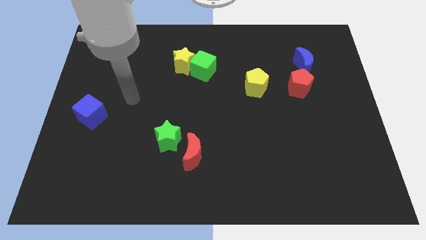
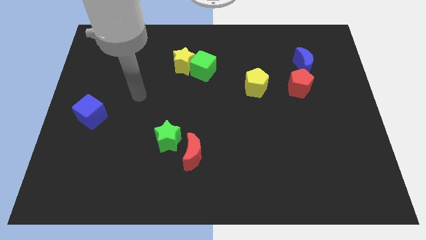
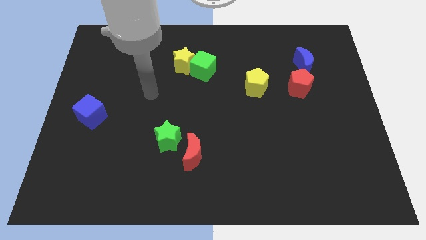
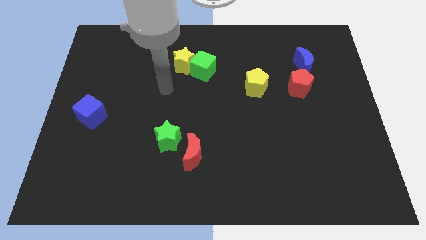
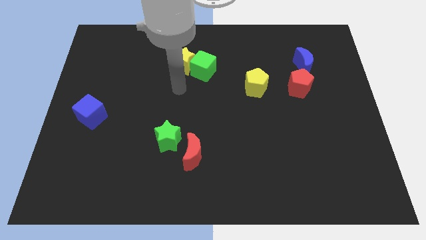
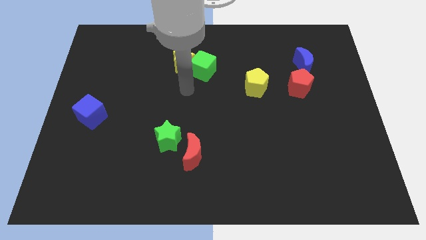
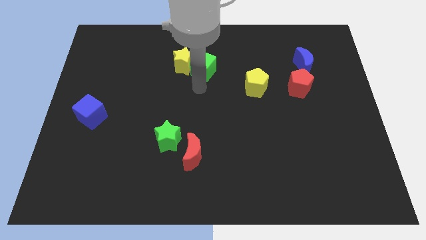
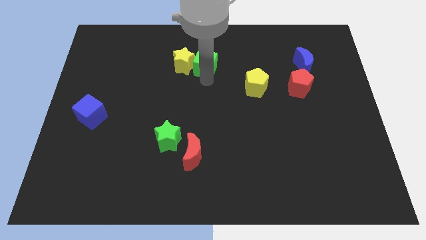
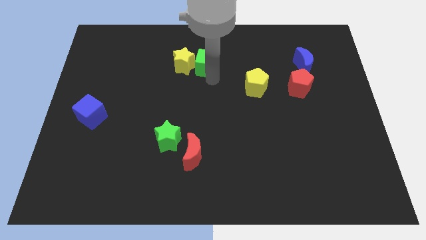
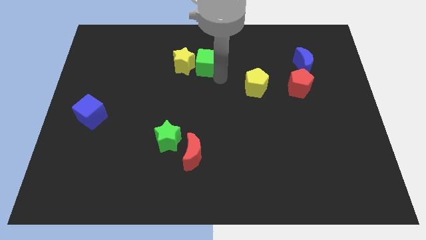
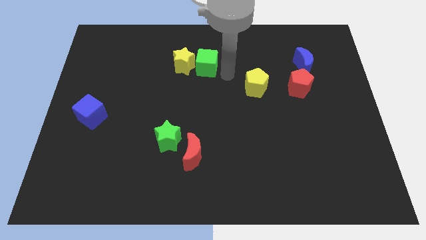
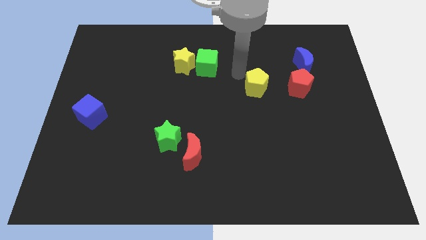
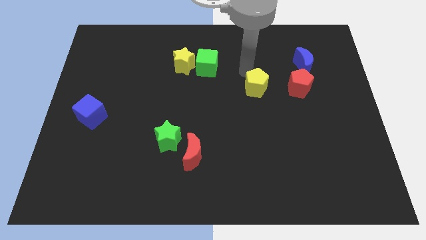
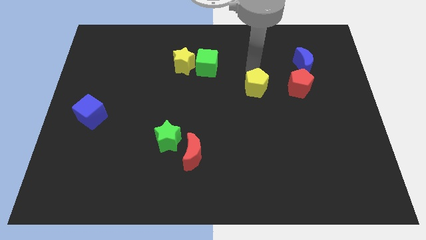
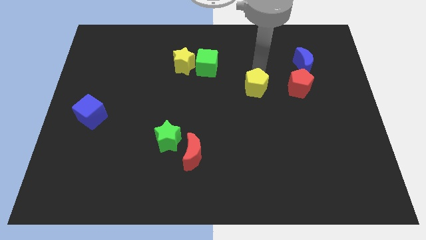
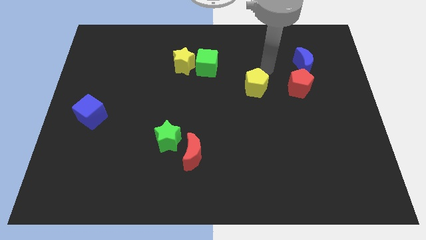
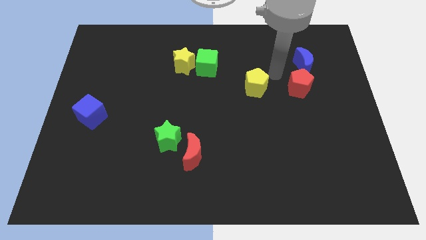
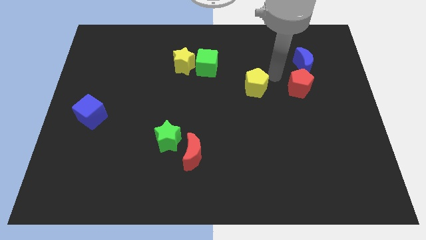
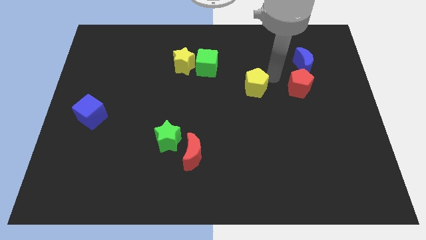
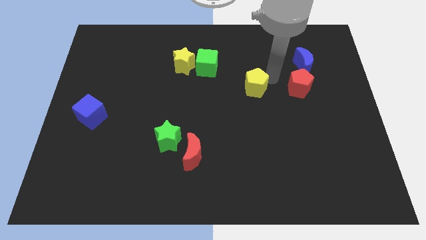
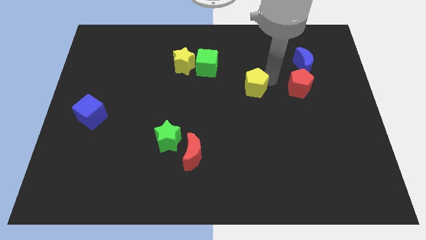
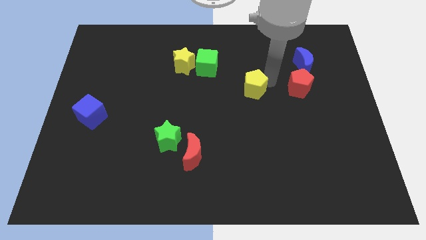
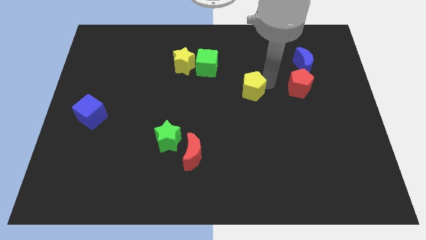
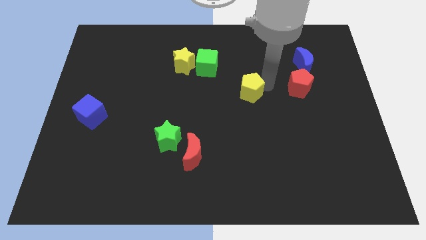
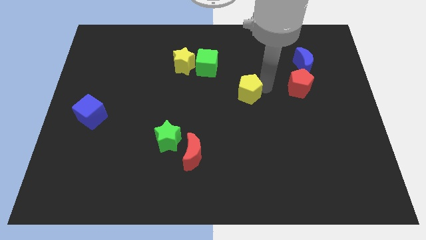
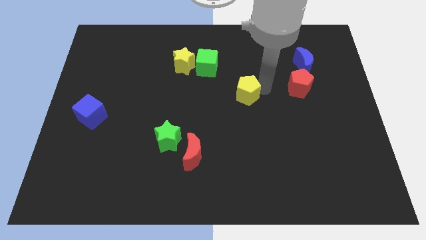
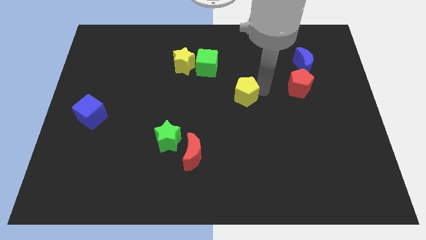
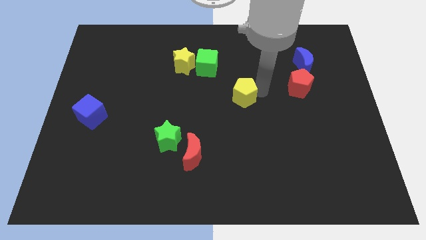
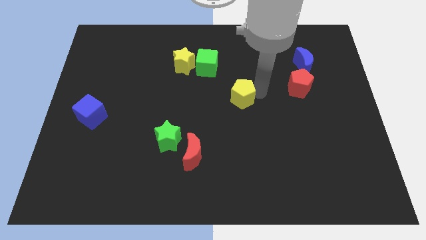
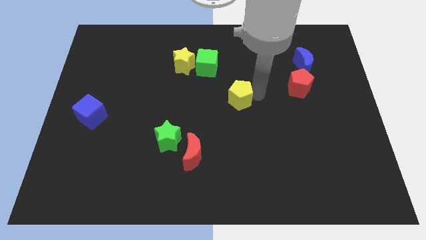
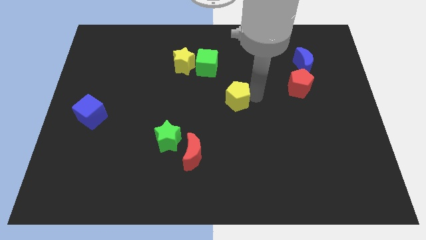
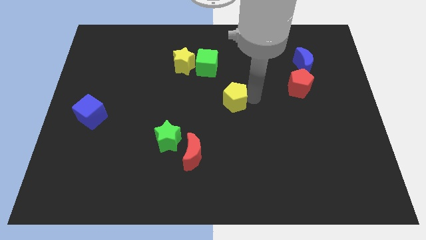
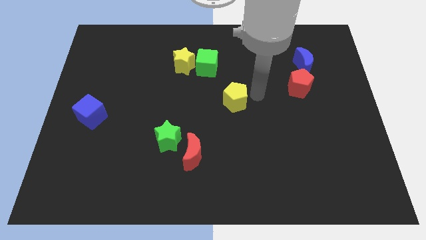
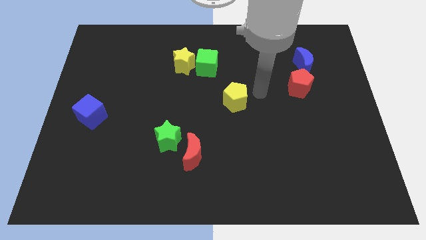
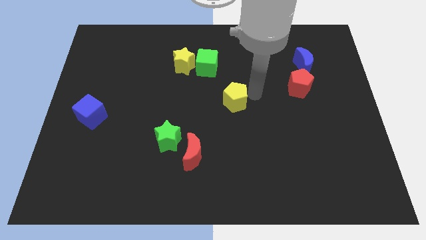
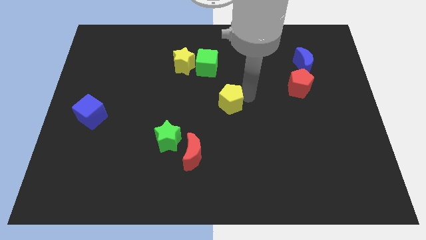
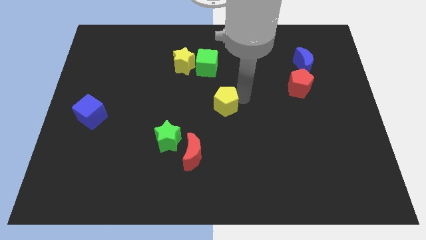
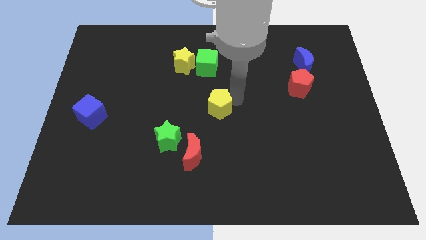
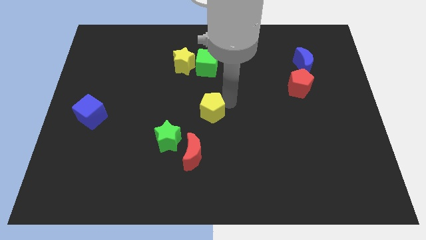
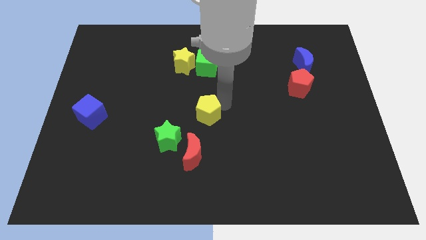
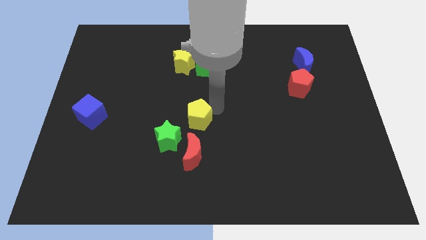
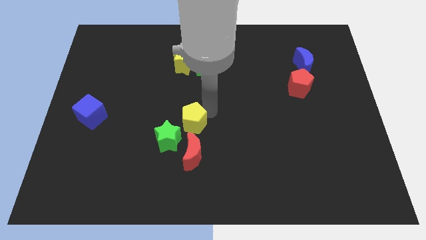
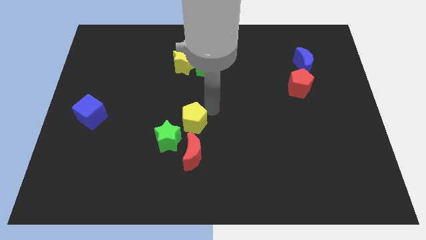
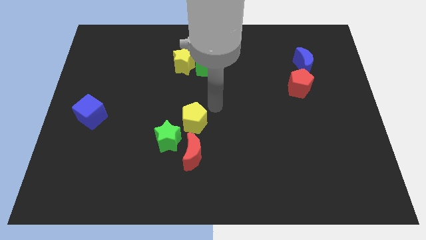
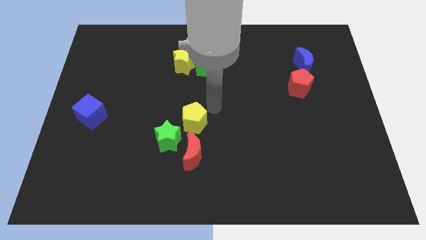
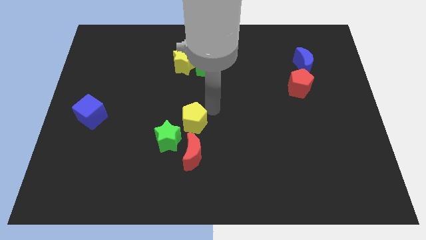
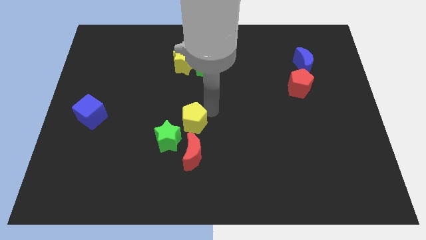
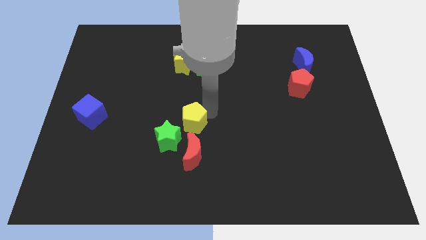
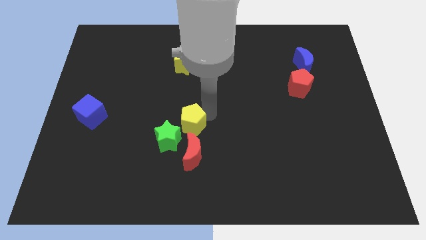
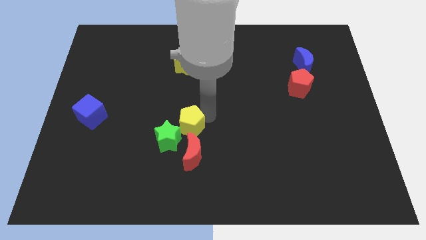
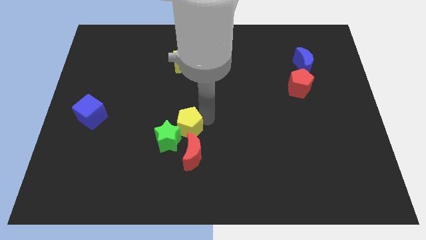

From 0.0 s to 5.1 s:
slide the yellow pentagon to the green star

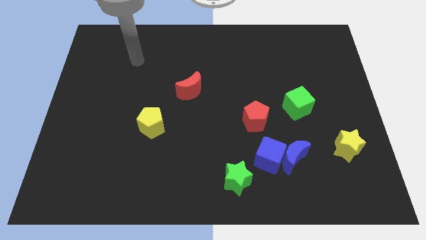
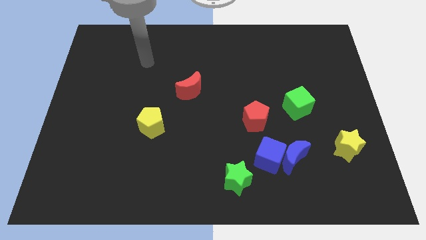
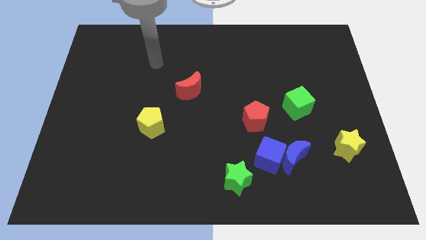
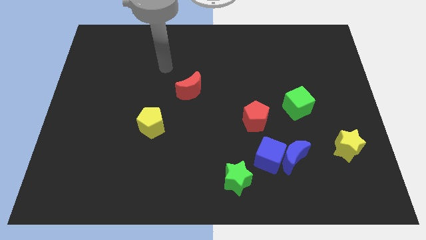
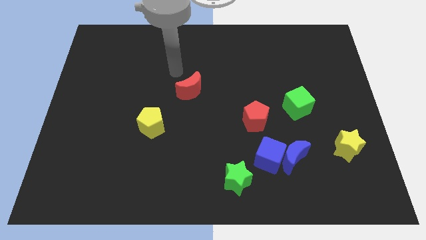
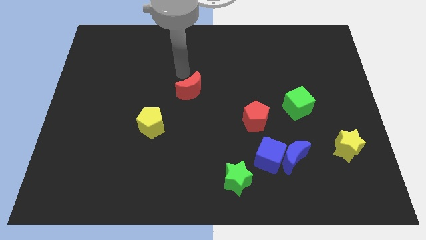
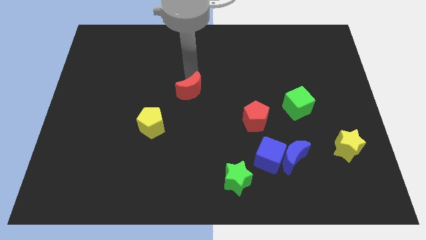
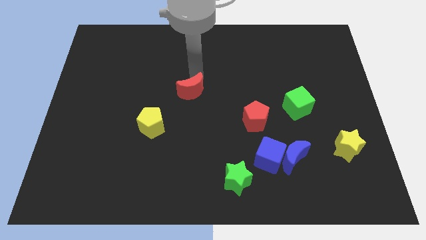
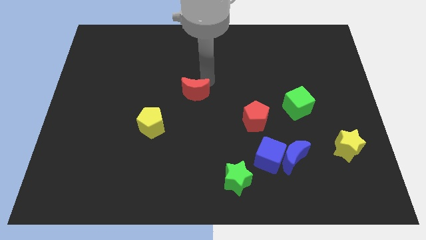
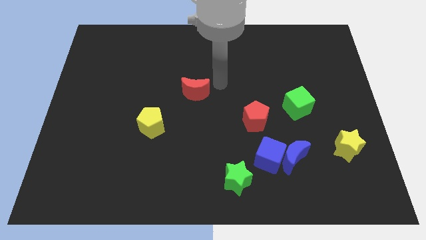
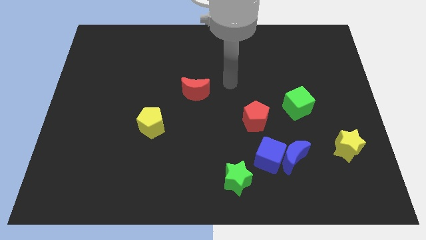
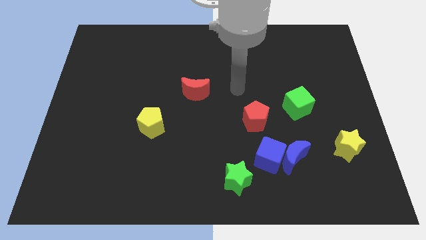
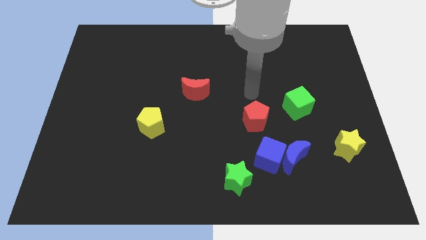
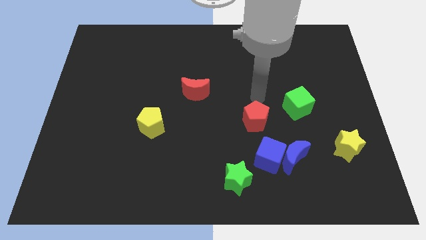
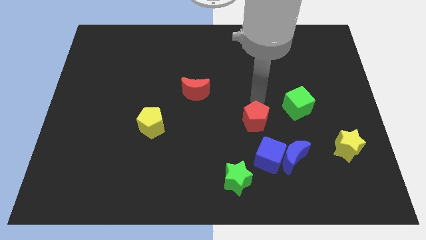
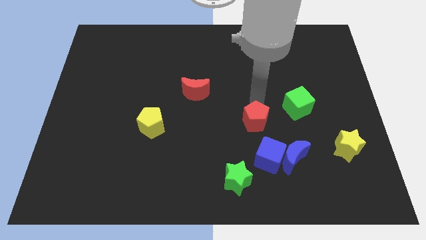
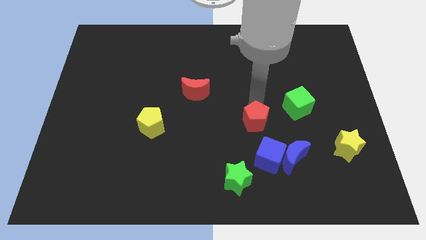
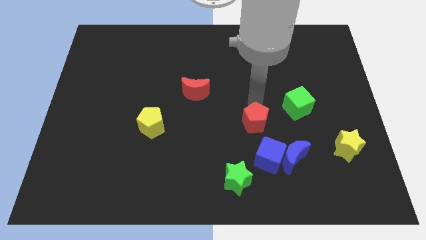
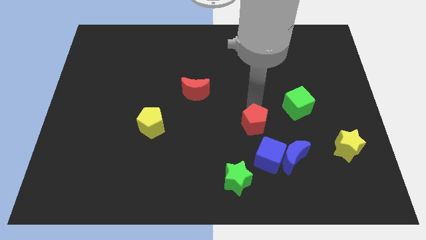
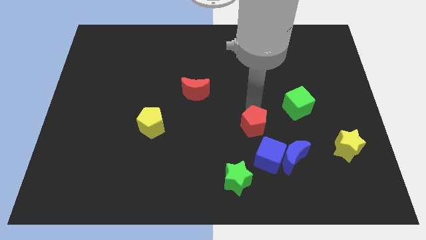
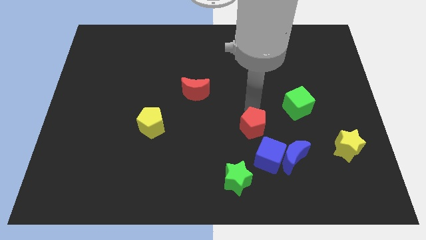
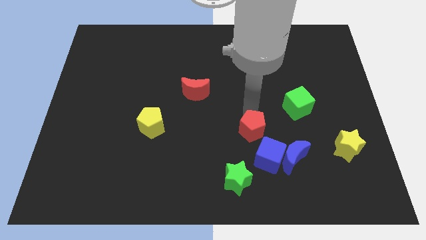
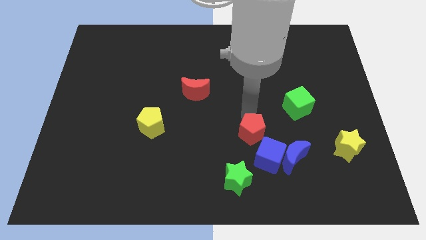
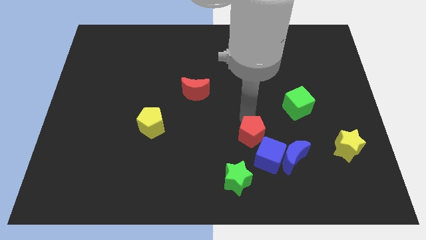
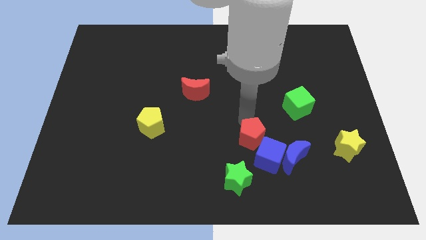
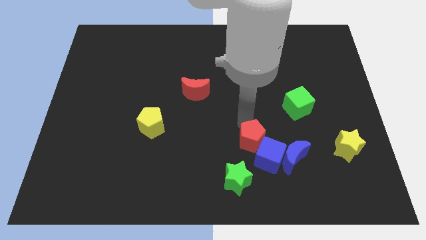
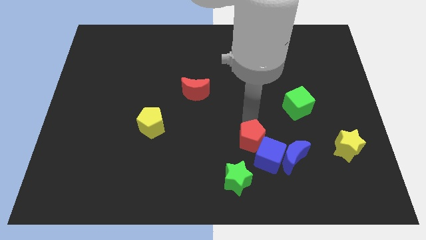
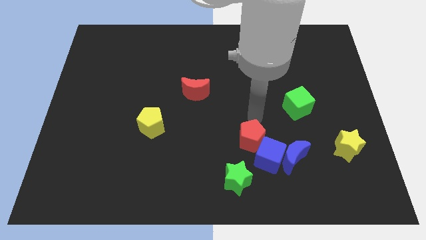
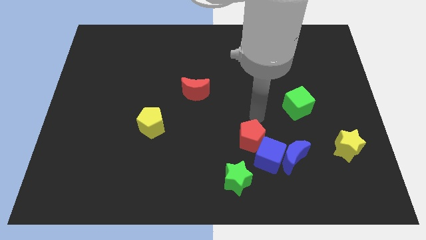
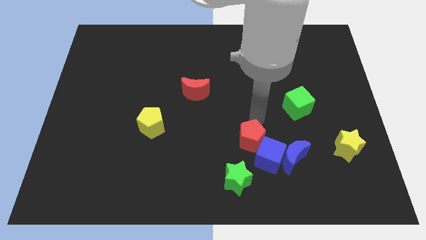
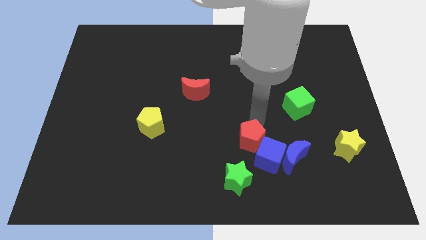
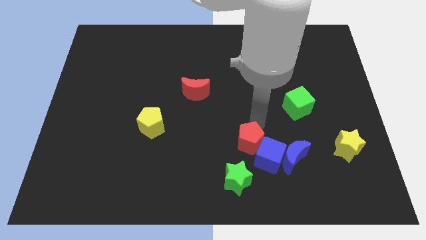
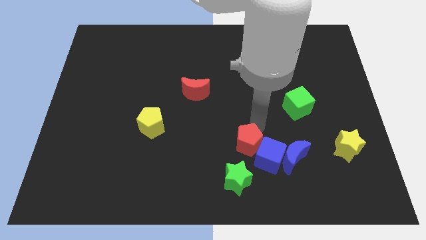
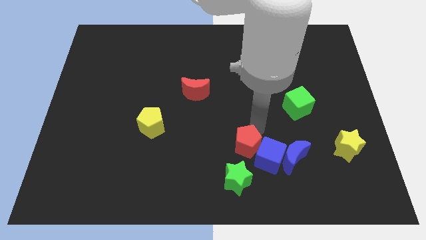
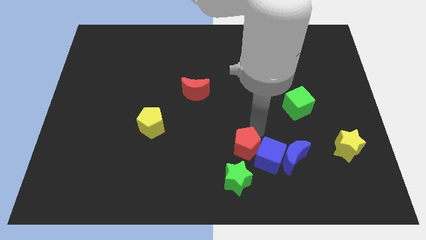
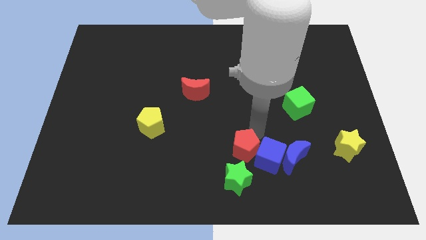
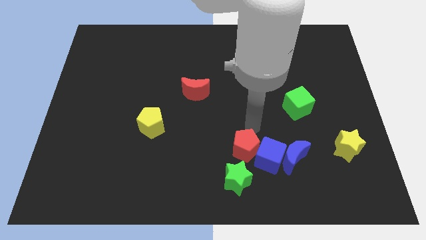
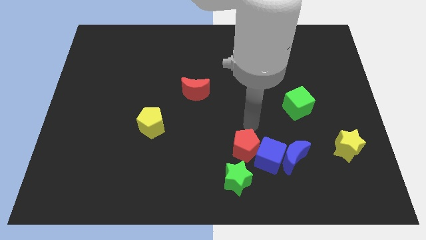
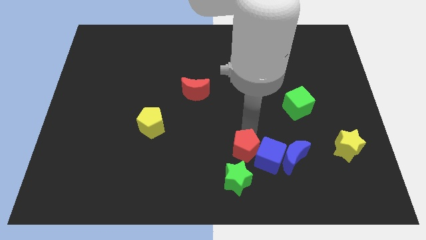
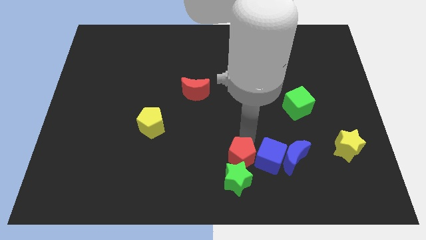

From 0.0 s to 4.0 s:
move the red pentagon towards the green star
